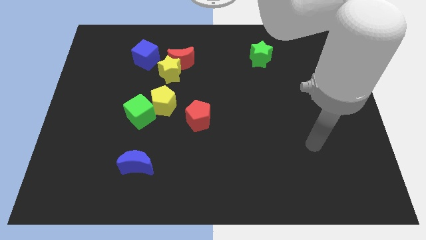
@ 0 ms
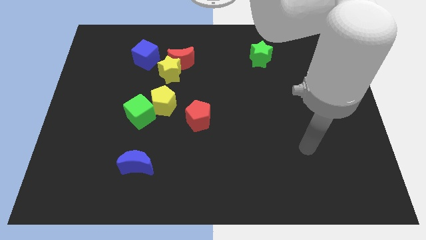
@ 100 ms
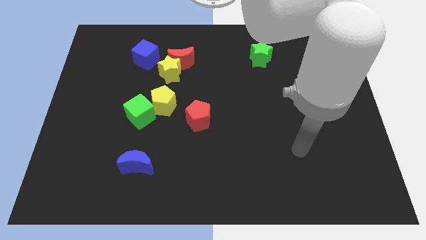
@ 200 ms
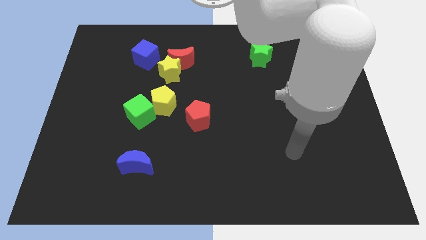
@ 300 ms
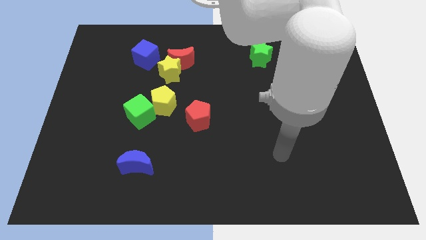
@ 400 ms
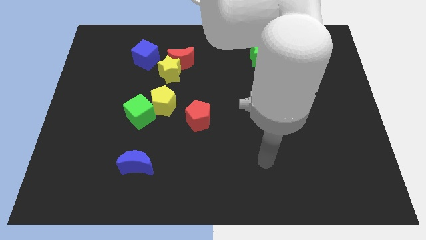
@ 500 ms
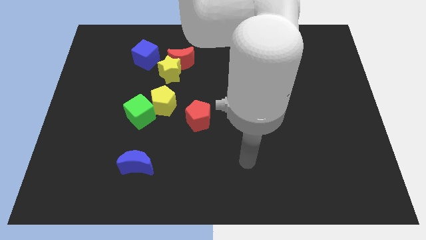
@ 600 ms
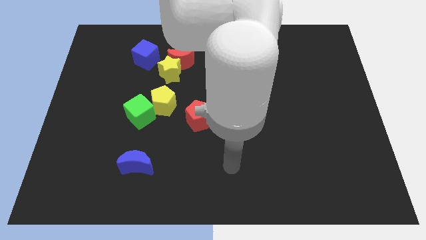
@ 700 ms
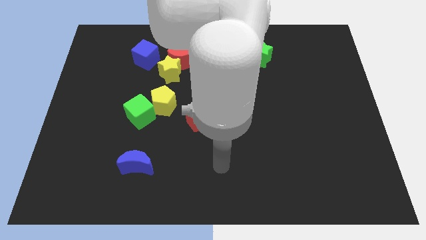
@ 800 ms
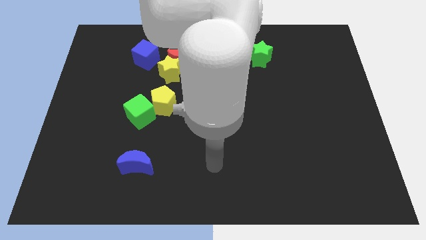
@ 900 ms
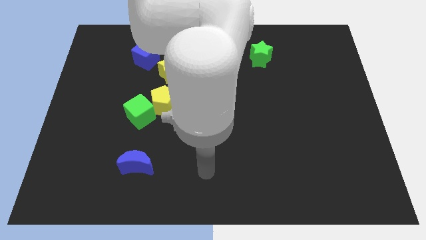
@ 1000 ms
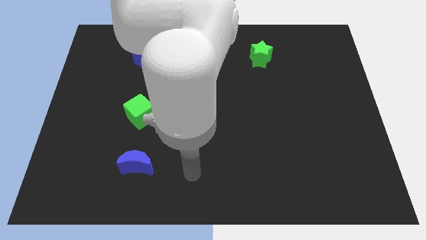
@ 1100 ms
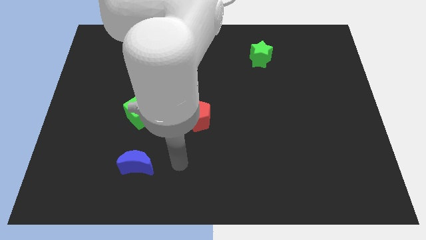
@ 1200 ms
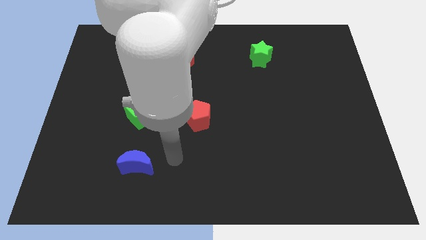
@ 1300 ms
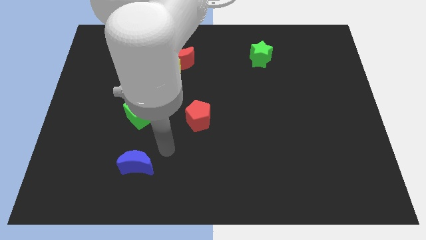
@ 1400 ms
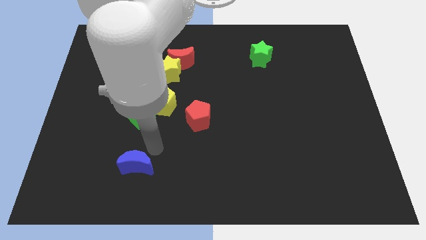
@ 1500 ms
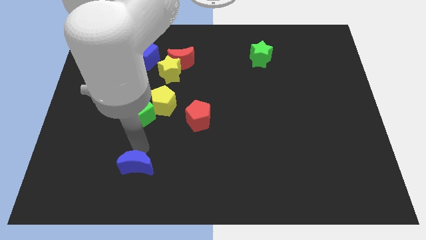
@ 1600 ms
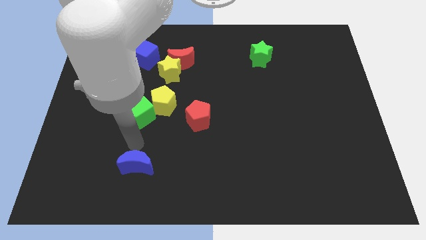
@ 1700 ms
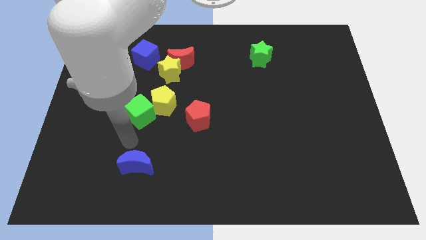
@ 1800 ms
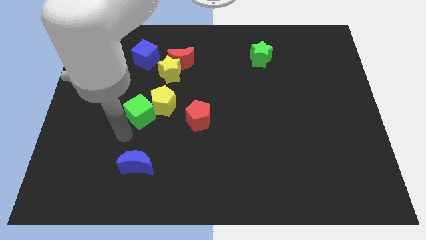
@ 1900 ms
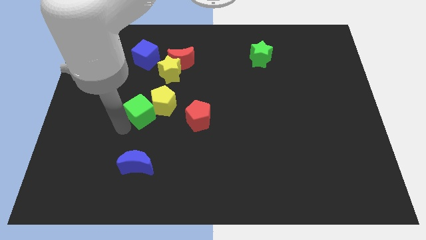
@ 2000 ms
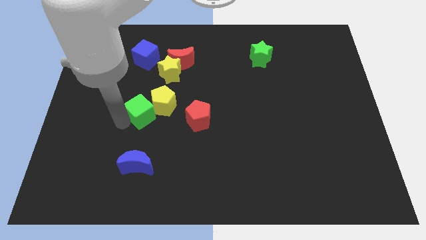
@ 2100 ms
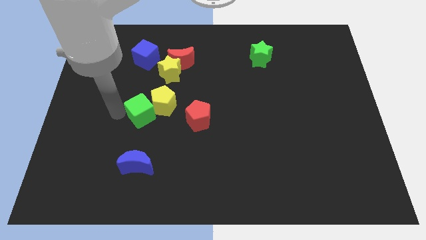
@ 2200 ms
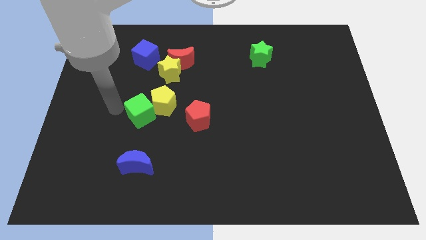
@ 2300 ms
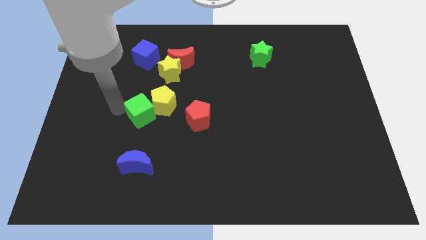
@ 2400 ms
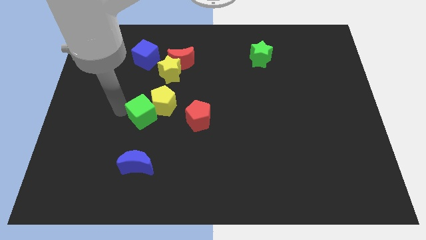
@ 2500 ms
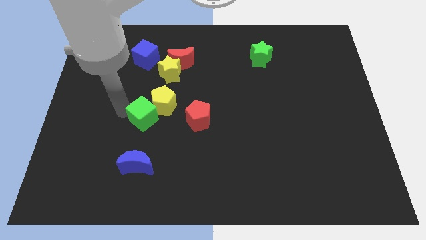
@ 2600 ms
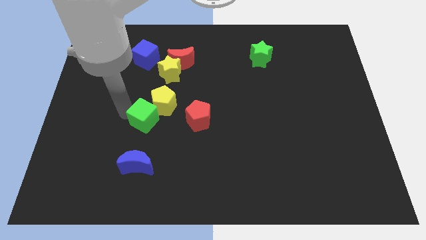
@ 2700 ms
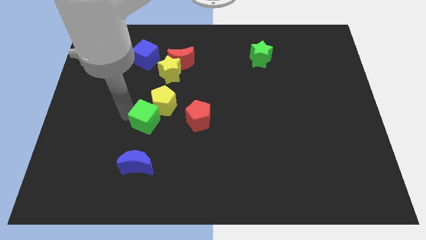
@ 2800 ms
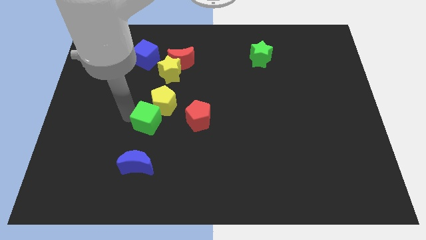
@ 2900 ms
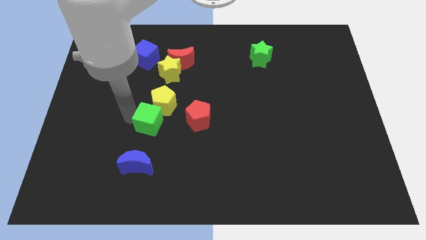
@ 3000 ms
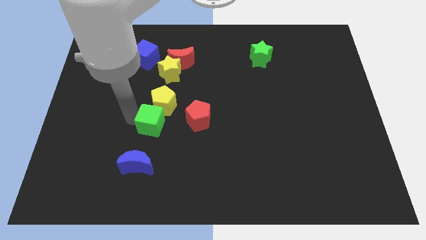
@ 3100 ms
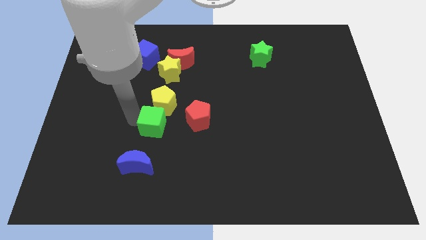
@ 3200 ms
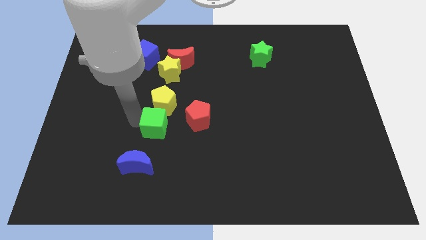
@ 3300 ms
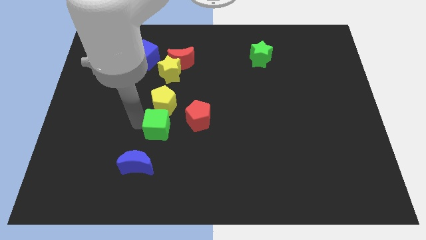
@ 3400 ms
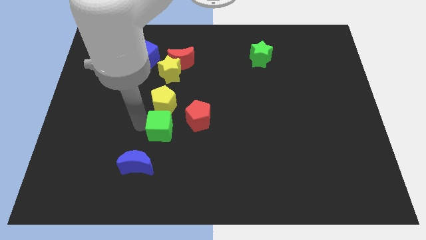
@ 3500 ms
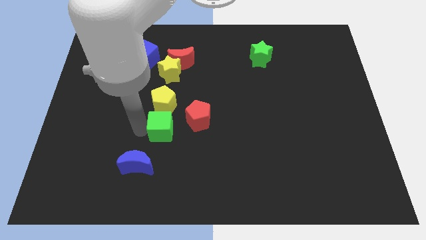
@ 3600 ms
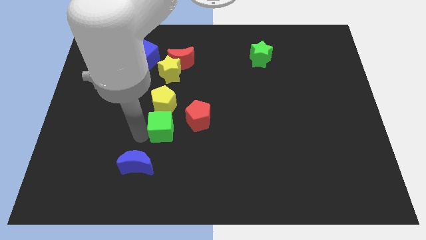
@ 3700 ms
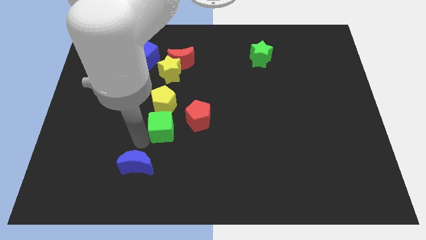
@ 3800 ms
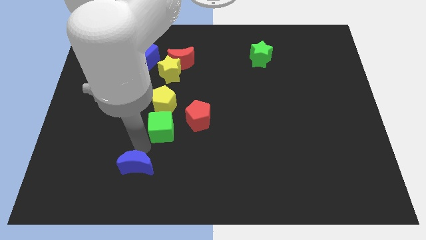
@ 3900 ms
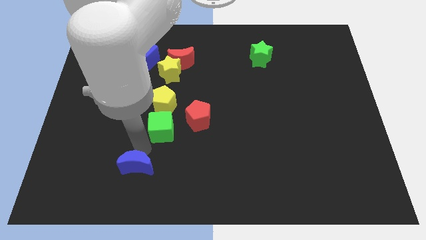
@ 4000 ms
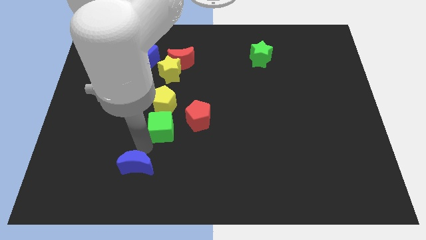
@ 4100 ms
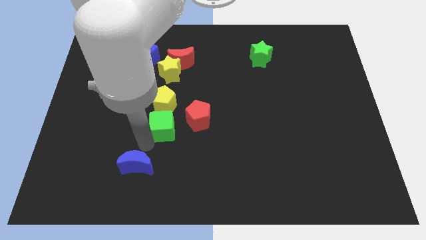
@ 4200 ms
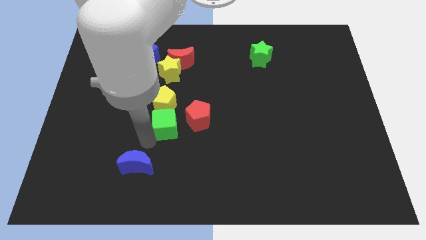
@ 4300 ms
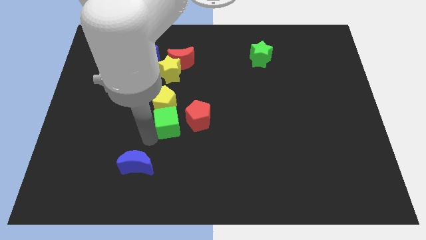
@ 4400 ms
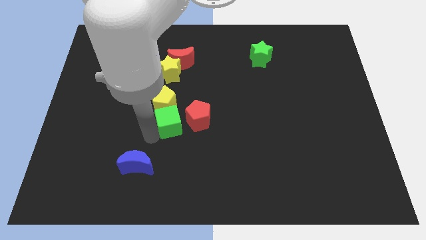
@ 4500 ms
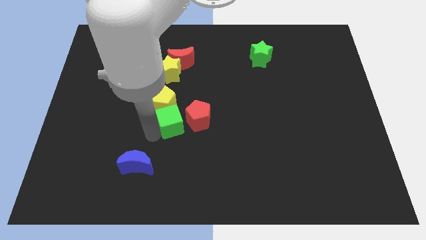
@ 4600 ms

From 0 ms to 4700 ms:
push the green cube right a little bit

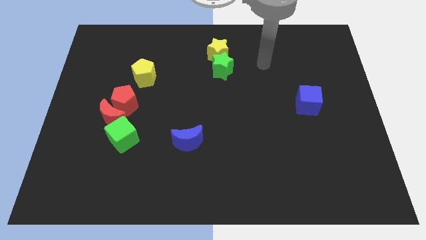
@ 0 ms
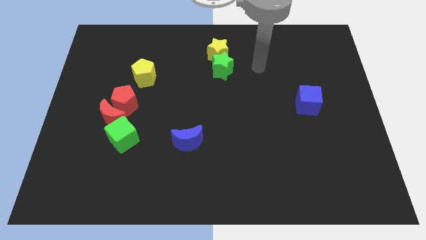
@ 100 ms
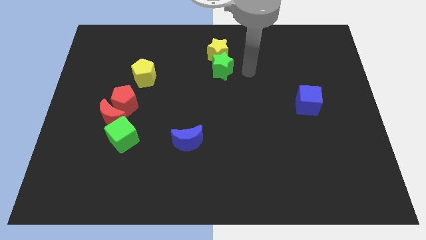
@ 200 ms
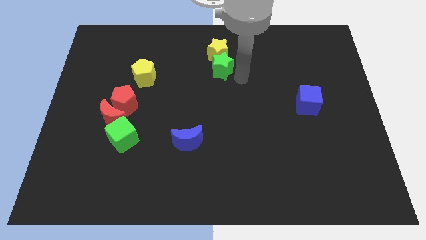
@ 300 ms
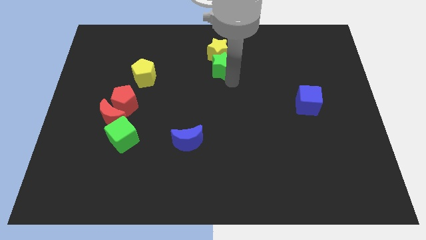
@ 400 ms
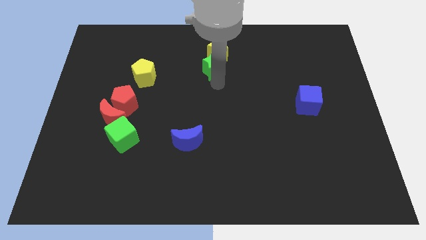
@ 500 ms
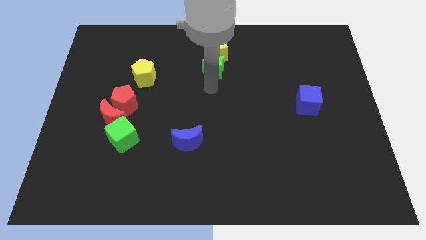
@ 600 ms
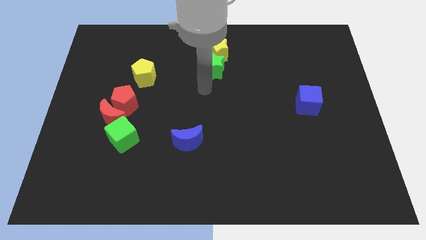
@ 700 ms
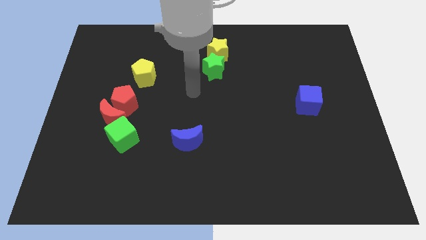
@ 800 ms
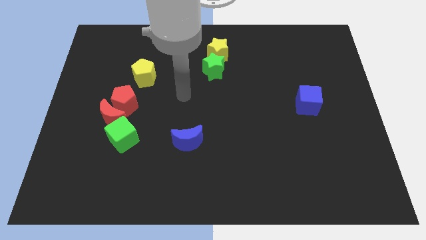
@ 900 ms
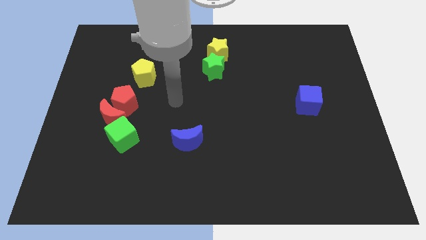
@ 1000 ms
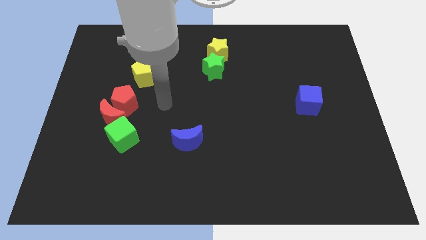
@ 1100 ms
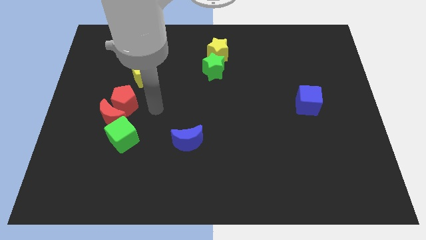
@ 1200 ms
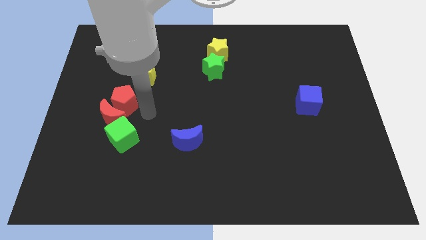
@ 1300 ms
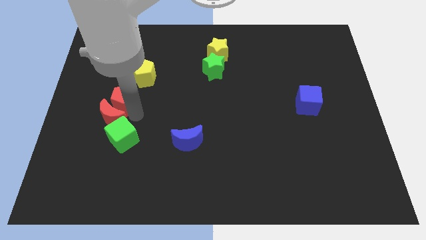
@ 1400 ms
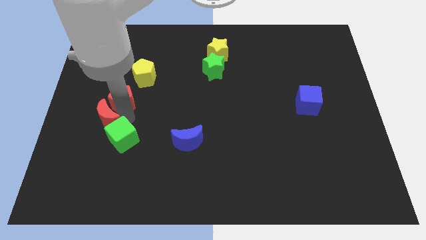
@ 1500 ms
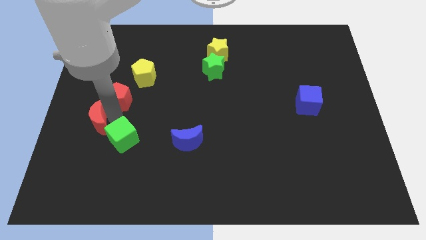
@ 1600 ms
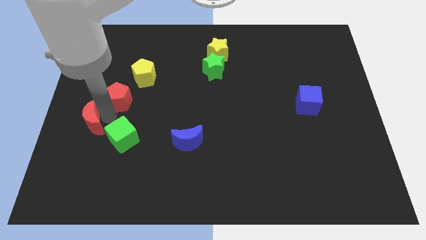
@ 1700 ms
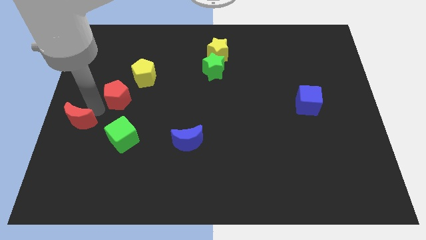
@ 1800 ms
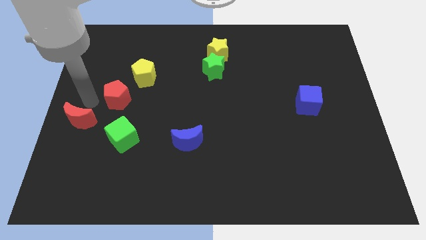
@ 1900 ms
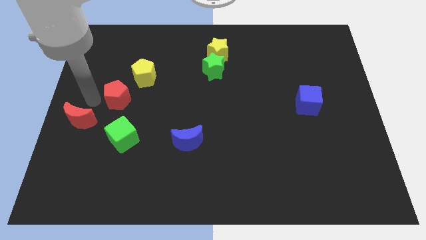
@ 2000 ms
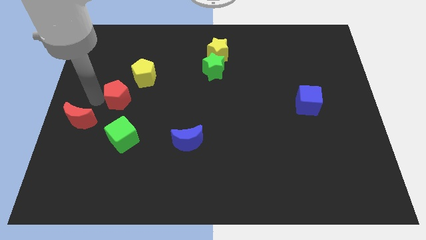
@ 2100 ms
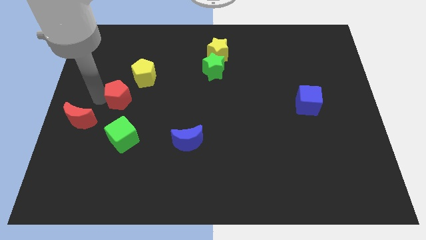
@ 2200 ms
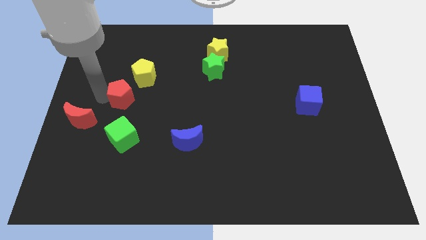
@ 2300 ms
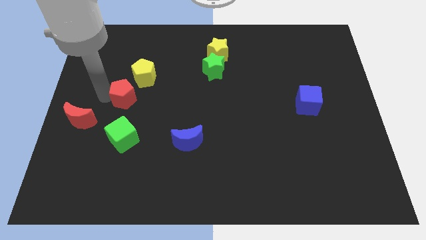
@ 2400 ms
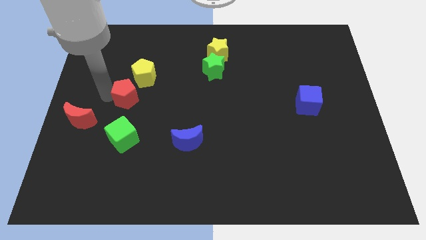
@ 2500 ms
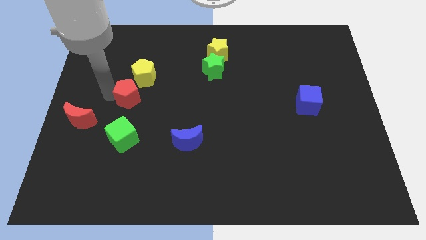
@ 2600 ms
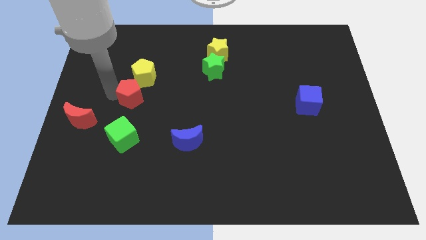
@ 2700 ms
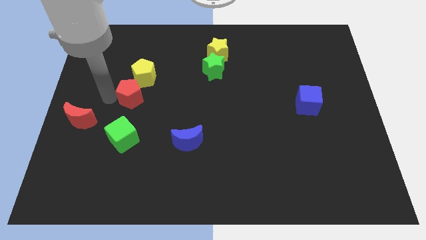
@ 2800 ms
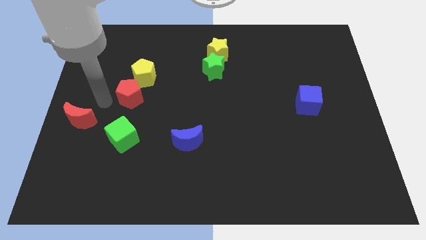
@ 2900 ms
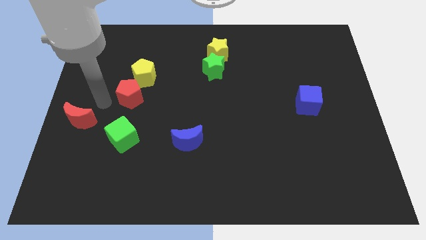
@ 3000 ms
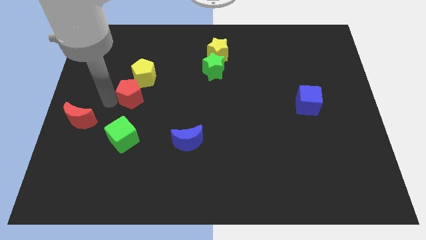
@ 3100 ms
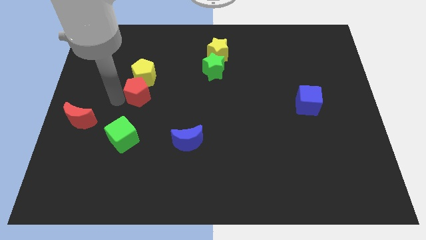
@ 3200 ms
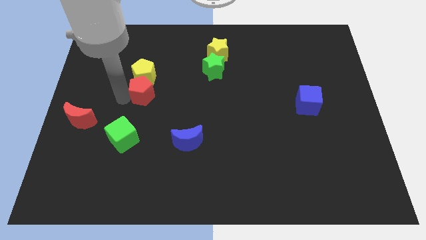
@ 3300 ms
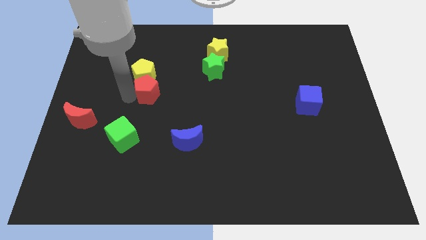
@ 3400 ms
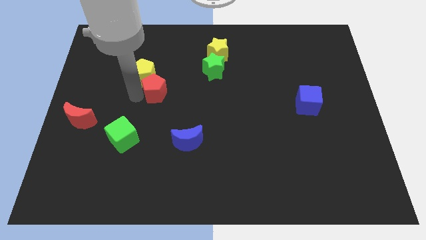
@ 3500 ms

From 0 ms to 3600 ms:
slide the red pentagon slightly up and to the right
